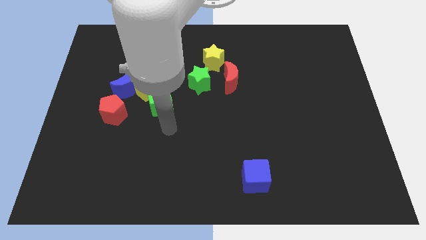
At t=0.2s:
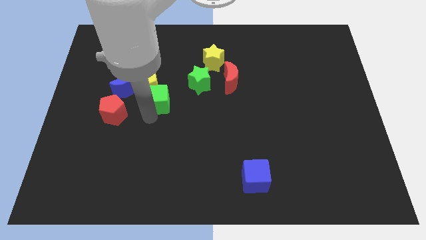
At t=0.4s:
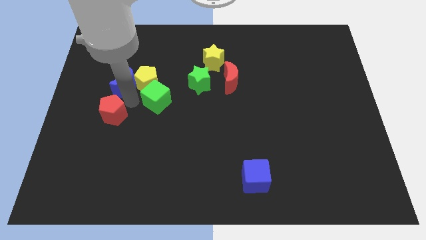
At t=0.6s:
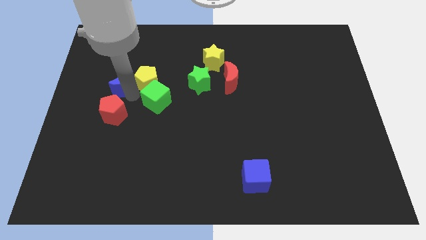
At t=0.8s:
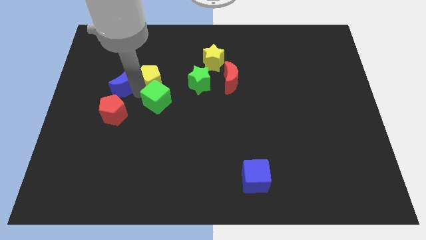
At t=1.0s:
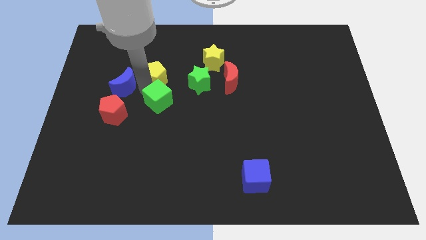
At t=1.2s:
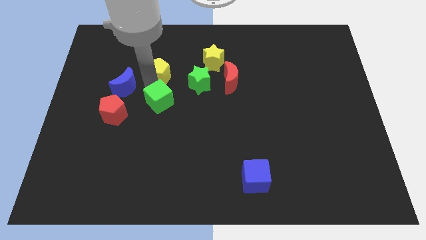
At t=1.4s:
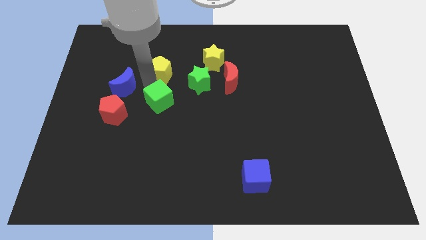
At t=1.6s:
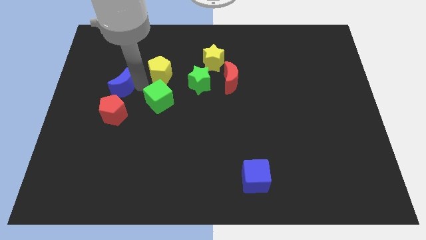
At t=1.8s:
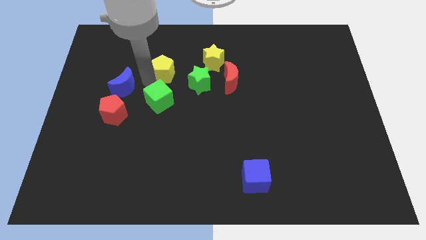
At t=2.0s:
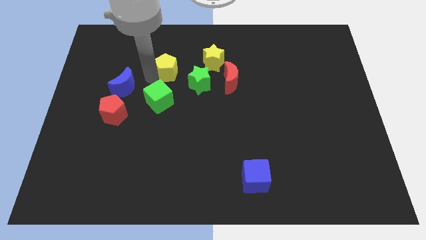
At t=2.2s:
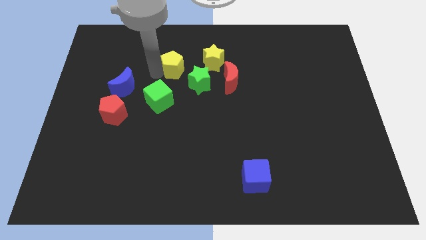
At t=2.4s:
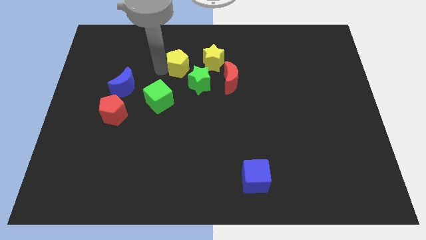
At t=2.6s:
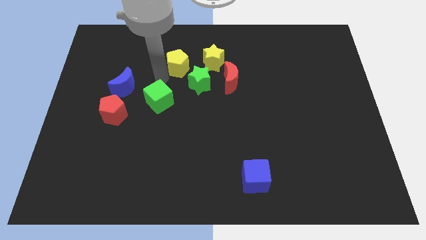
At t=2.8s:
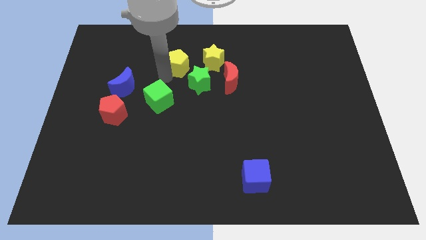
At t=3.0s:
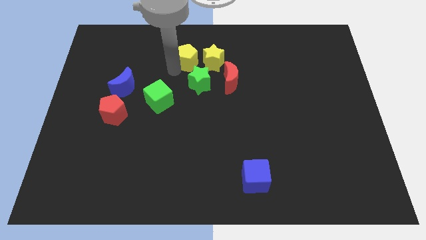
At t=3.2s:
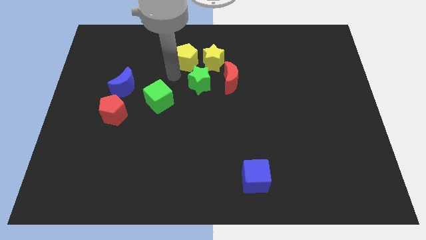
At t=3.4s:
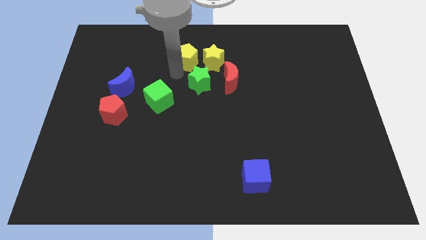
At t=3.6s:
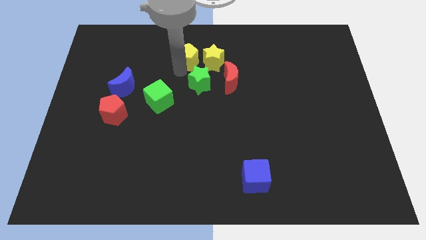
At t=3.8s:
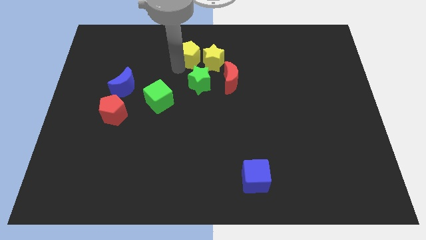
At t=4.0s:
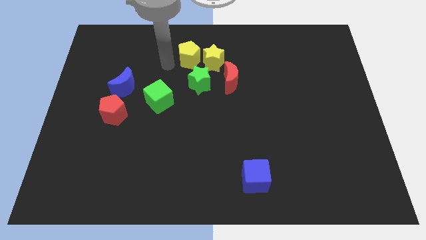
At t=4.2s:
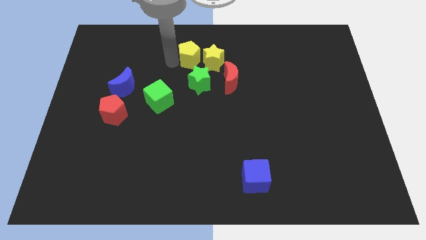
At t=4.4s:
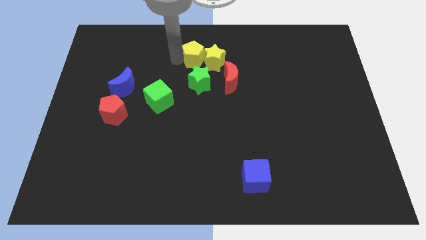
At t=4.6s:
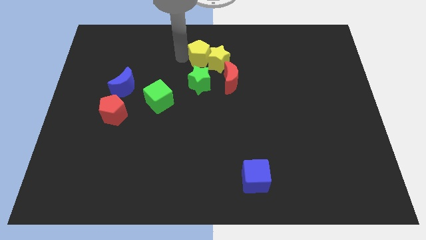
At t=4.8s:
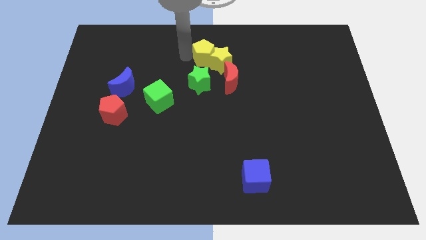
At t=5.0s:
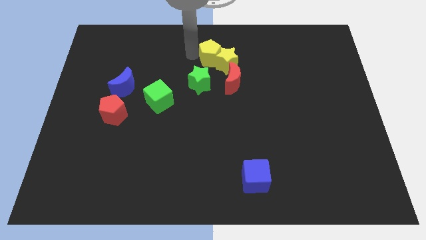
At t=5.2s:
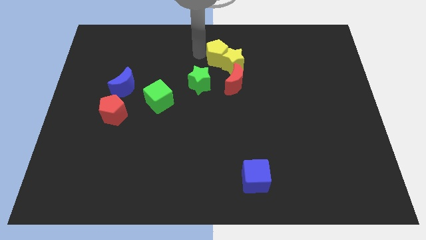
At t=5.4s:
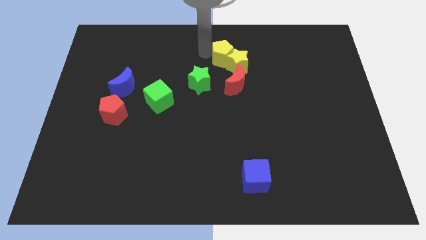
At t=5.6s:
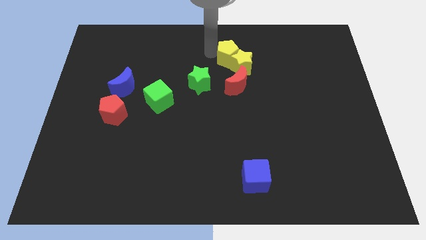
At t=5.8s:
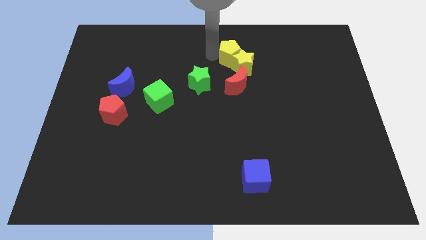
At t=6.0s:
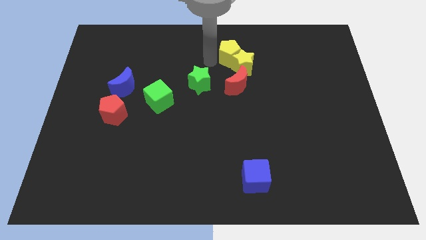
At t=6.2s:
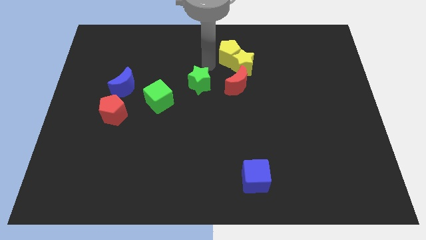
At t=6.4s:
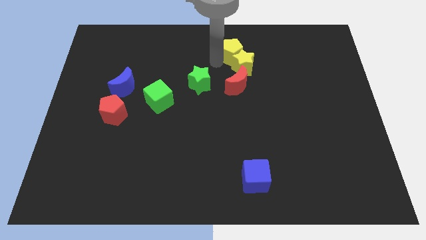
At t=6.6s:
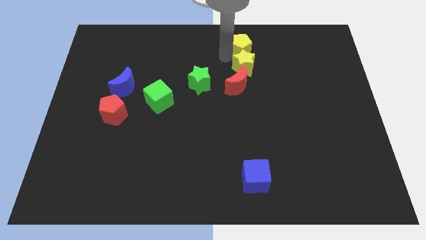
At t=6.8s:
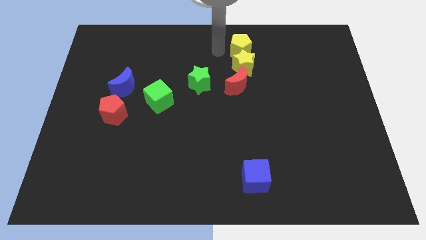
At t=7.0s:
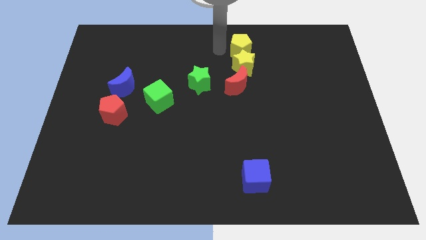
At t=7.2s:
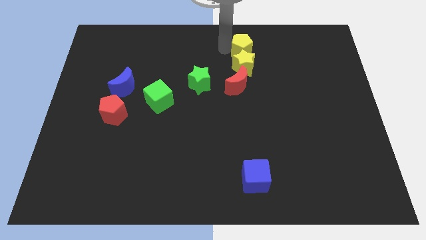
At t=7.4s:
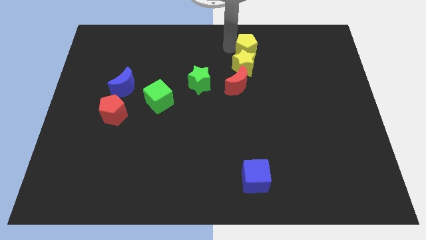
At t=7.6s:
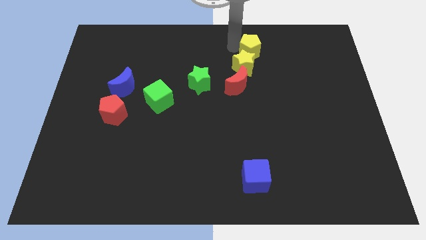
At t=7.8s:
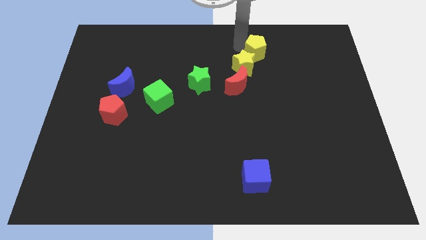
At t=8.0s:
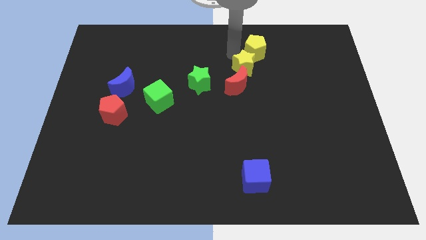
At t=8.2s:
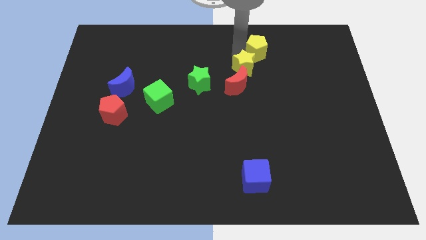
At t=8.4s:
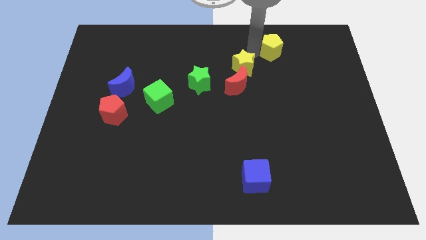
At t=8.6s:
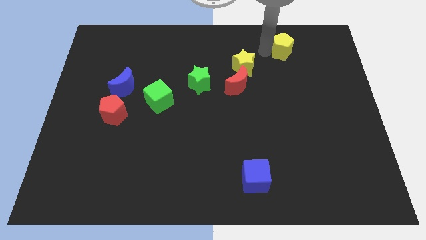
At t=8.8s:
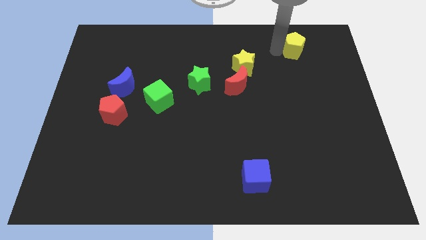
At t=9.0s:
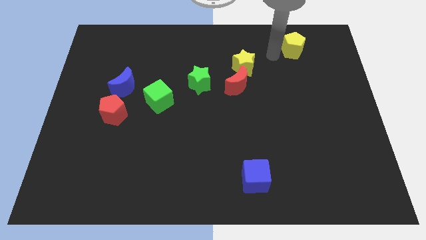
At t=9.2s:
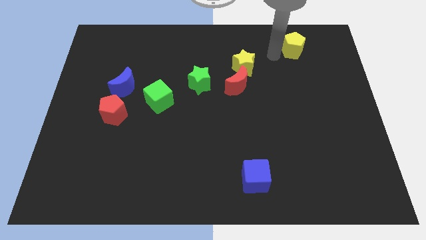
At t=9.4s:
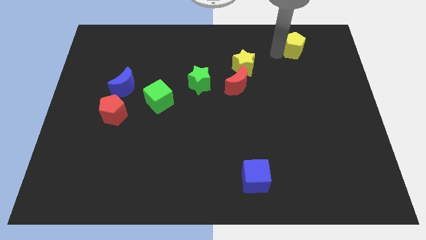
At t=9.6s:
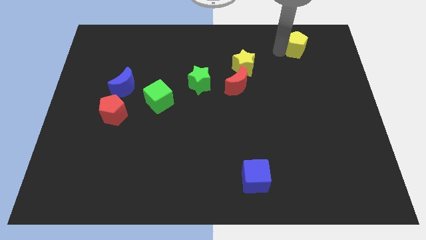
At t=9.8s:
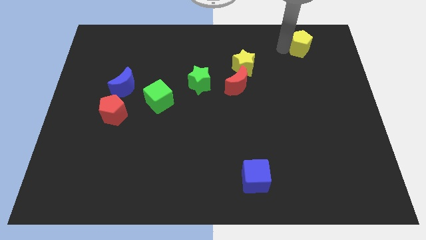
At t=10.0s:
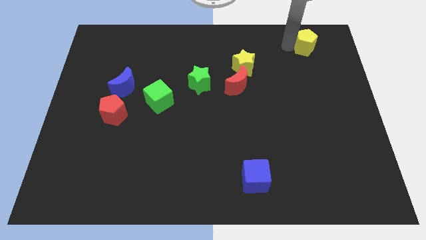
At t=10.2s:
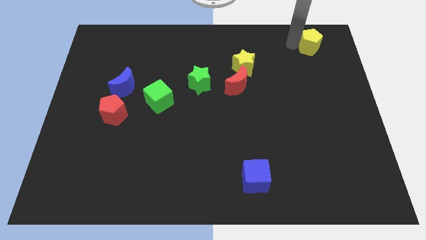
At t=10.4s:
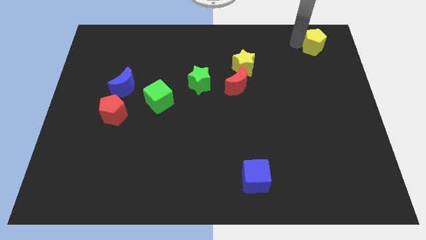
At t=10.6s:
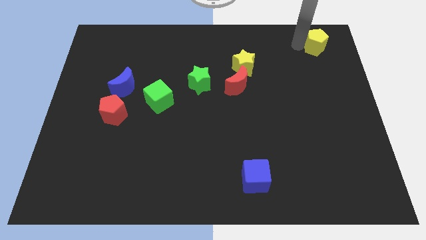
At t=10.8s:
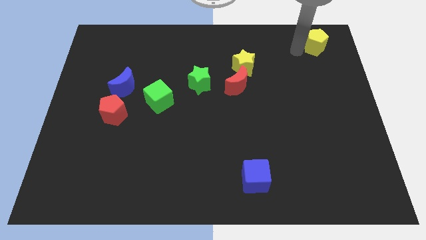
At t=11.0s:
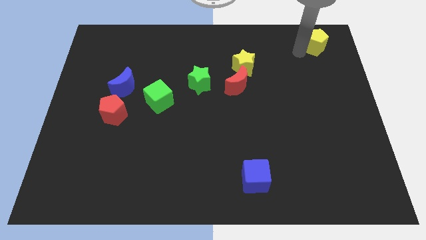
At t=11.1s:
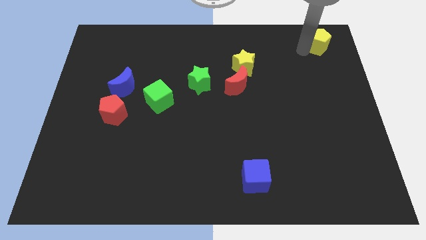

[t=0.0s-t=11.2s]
put the yellow pentagon to the upper right corner
